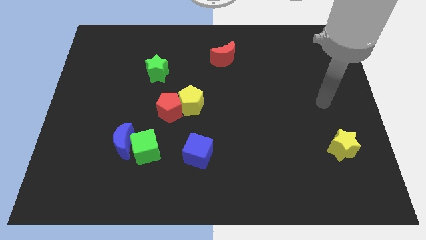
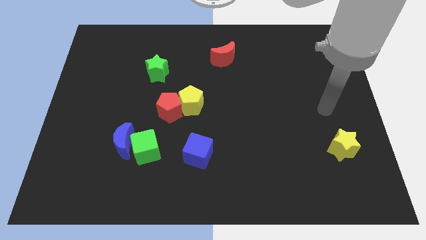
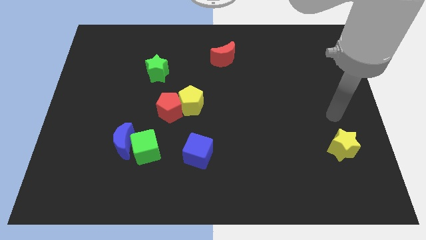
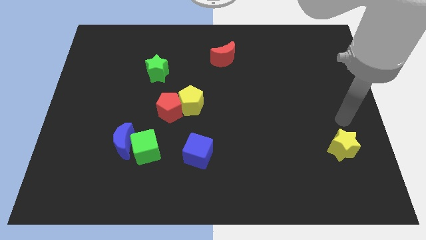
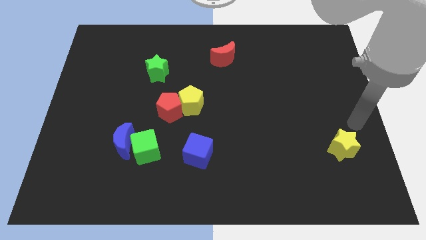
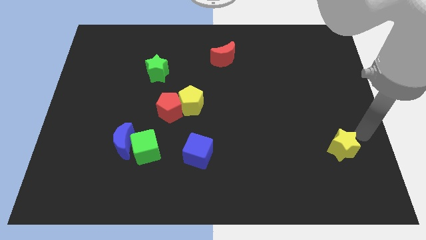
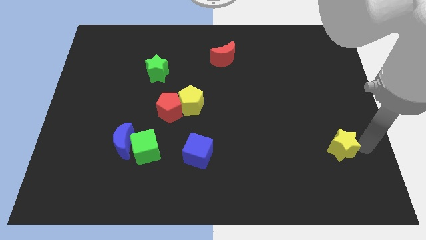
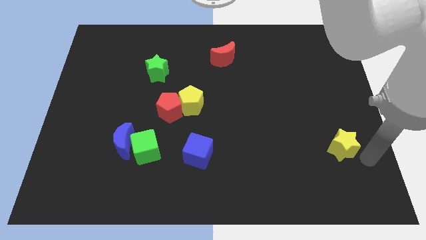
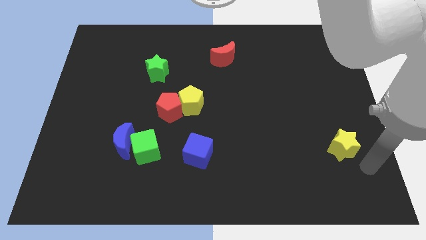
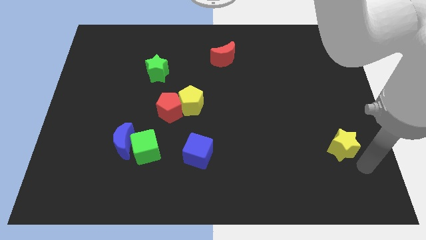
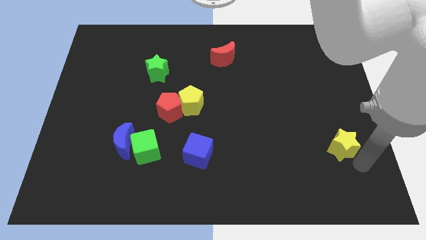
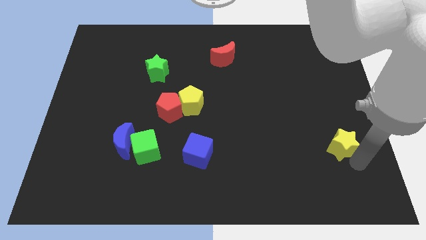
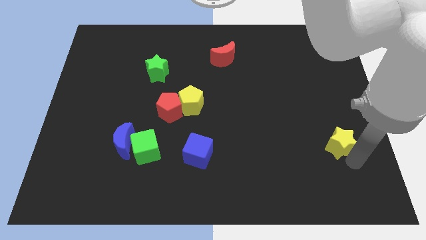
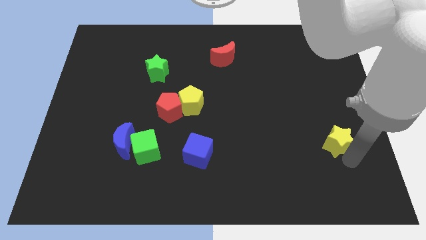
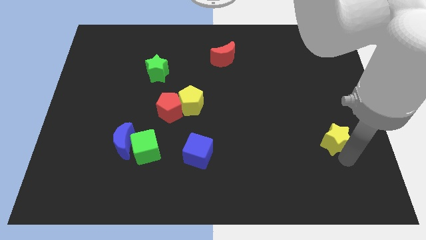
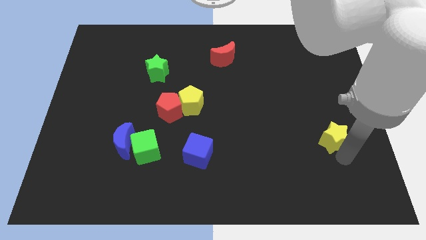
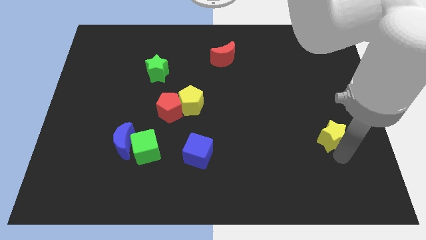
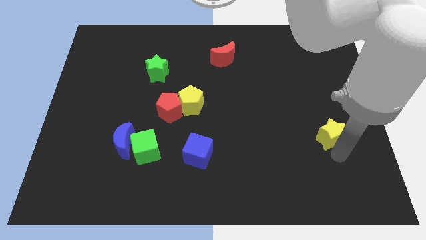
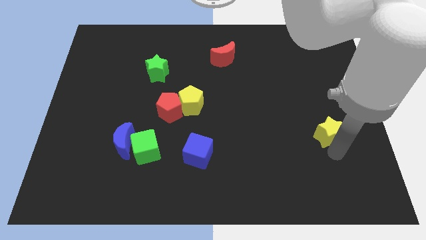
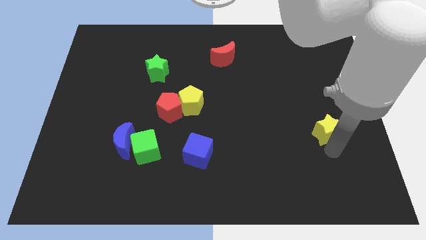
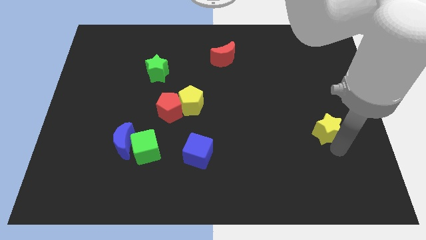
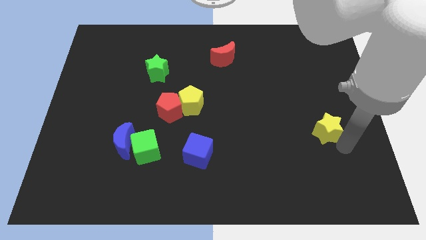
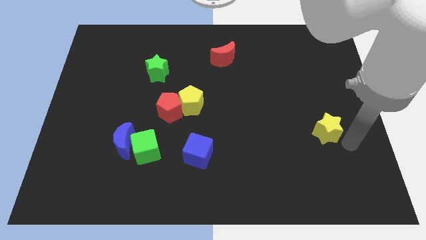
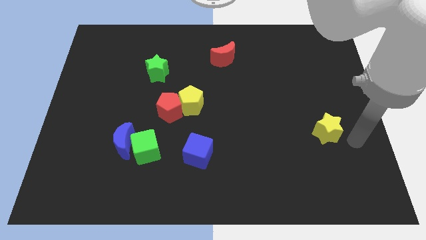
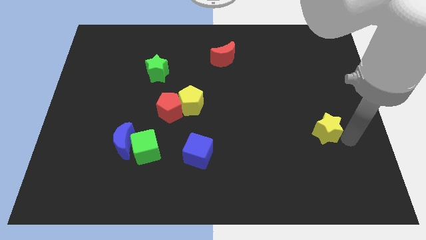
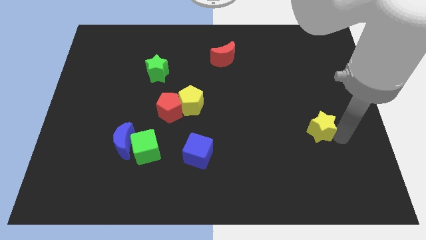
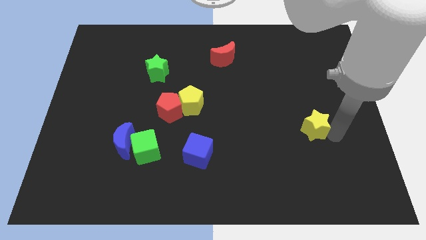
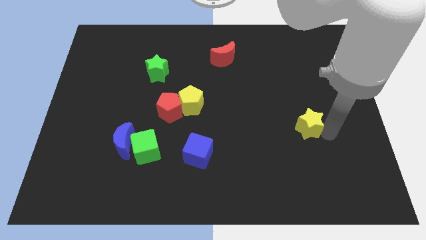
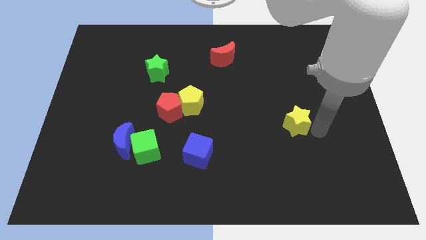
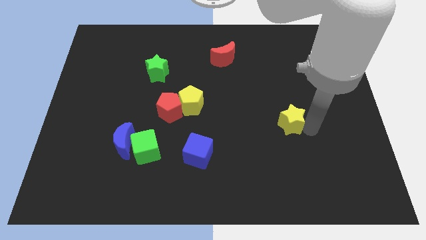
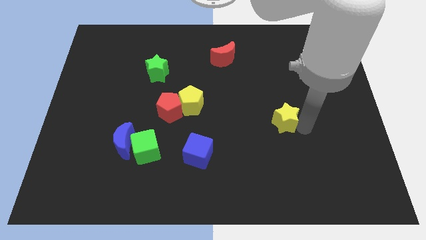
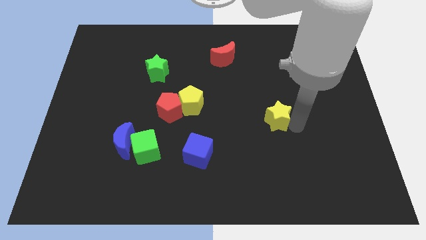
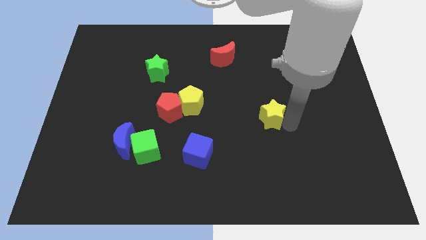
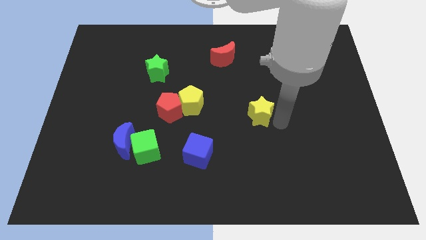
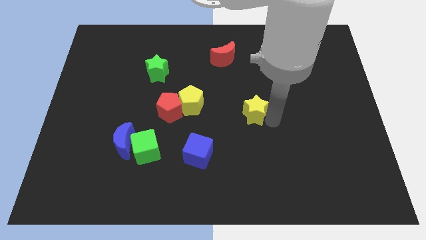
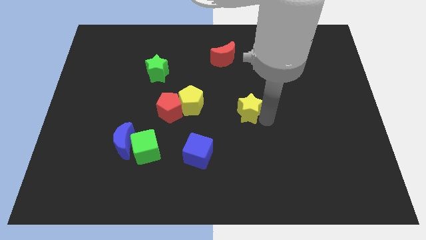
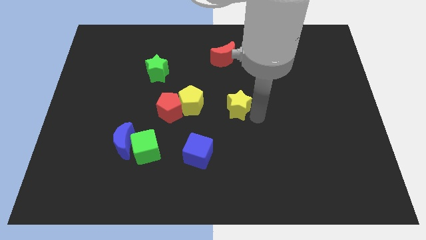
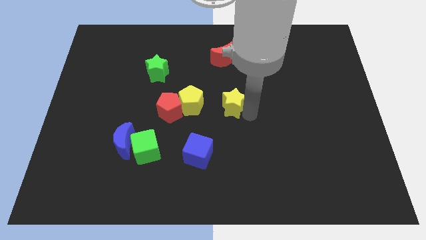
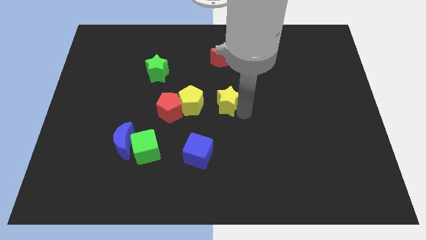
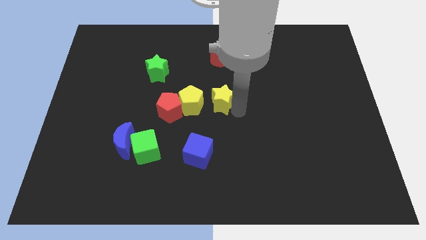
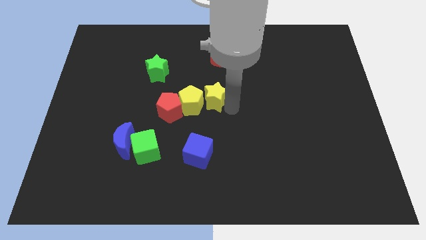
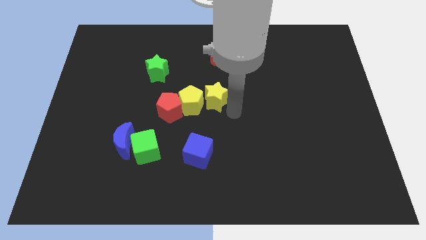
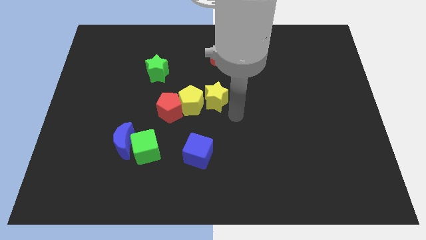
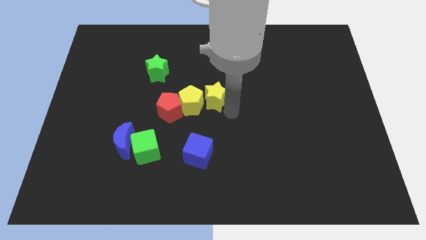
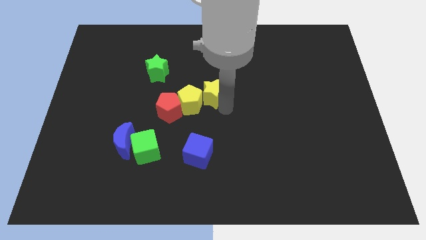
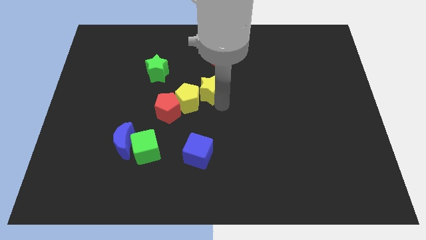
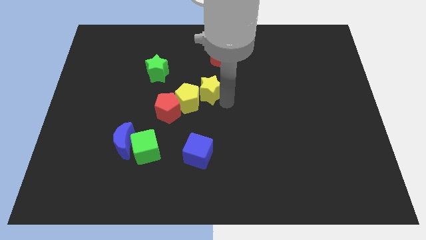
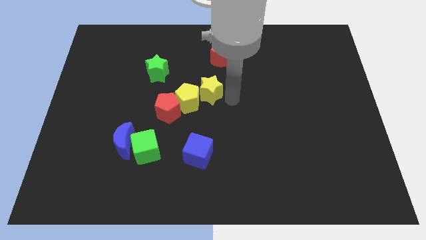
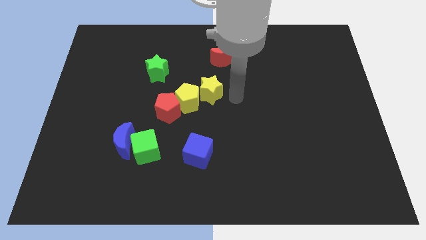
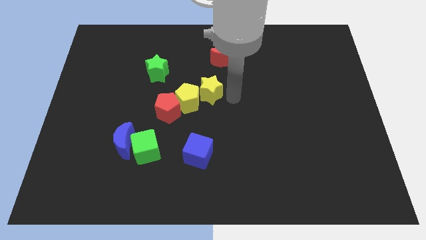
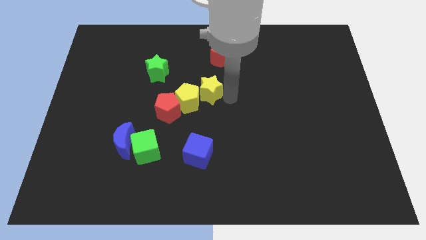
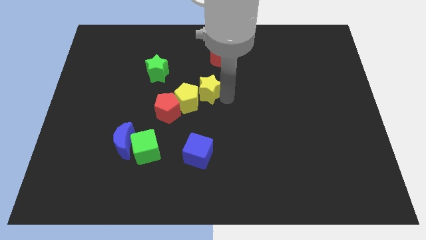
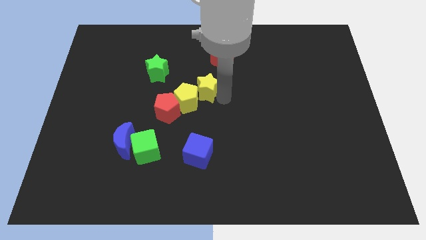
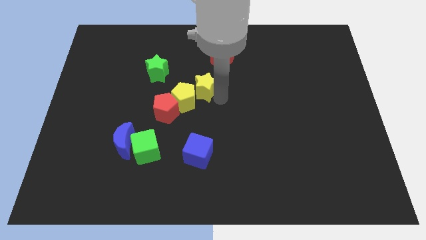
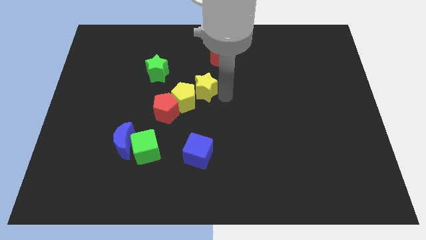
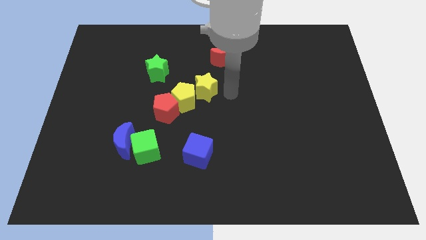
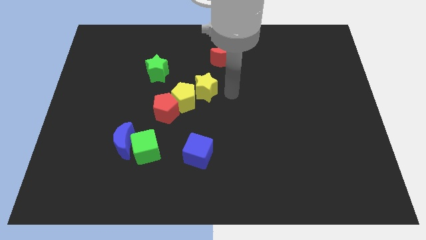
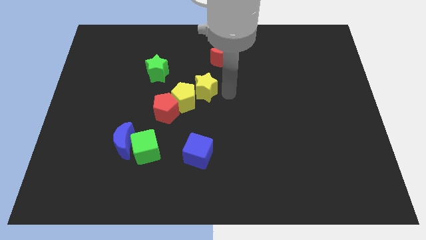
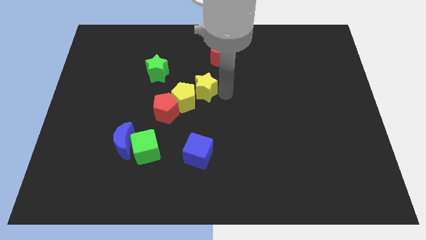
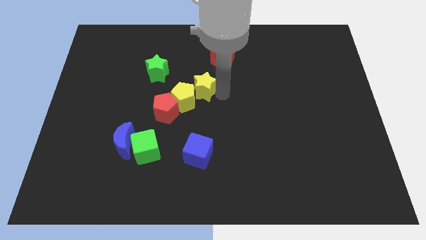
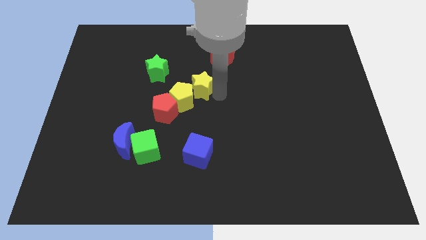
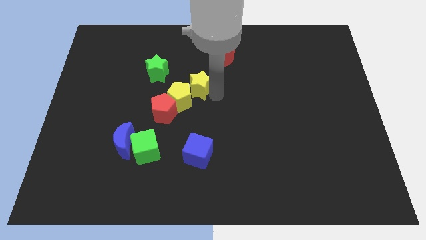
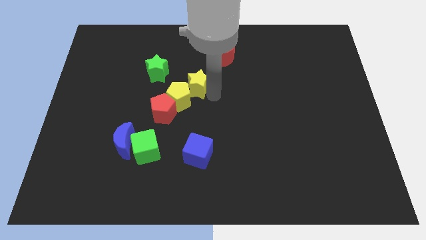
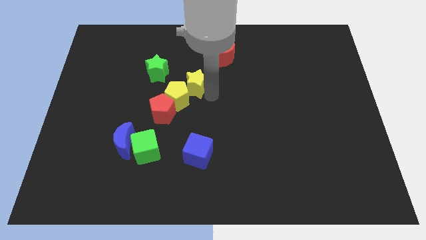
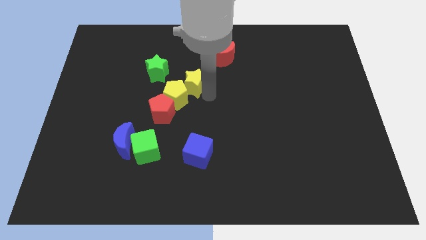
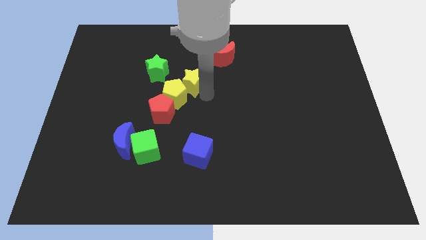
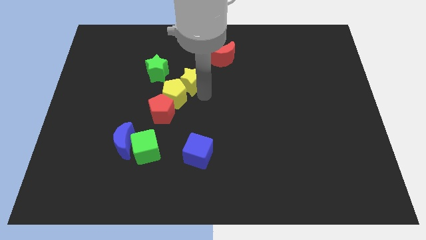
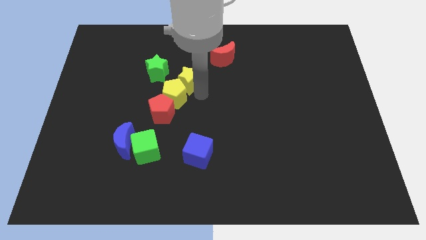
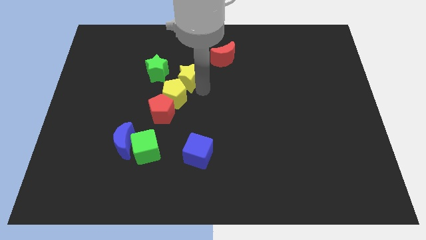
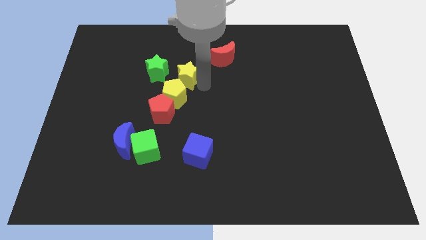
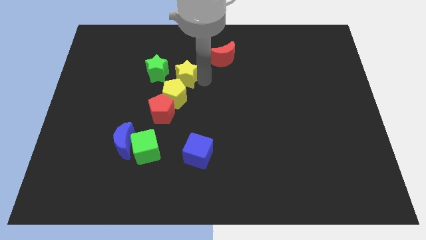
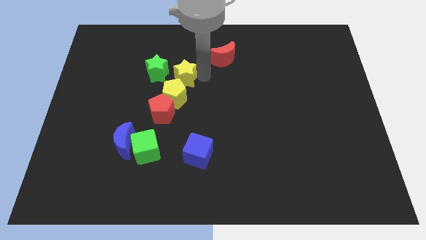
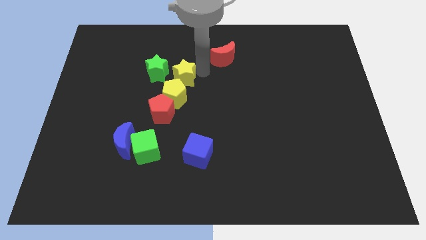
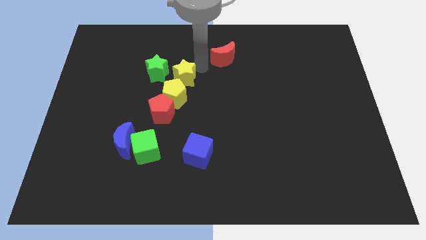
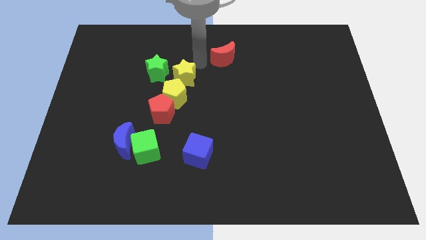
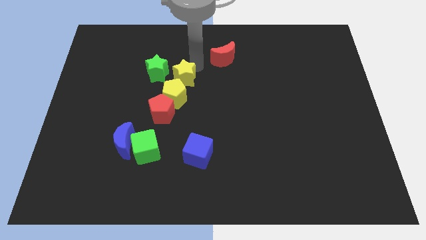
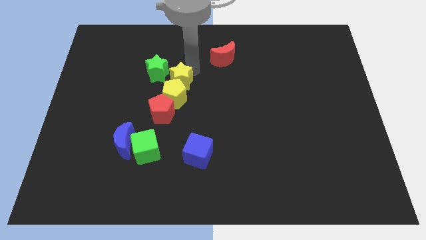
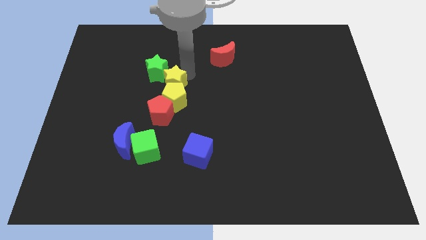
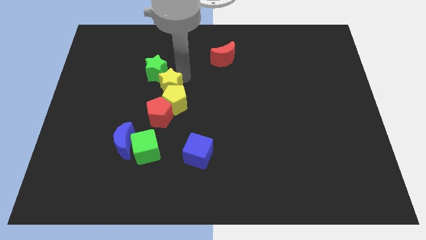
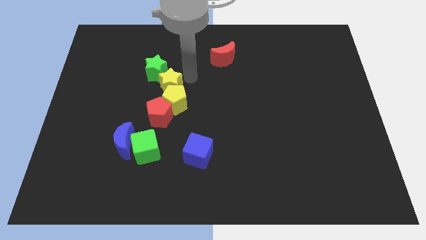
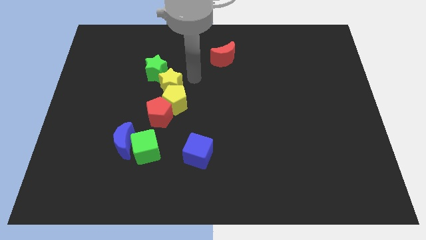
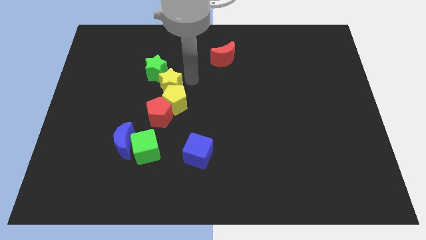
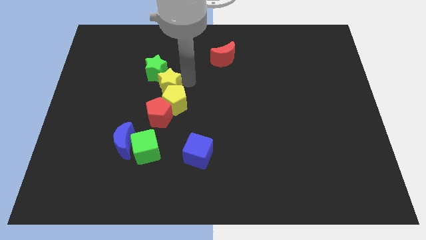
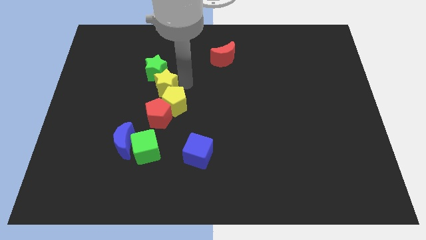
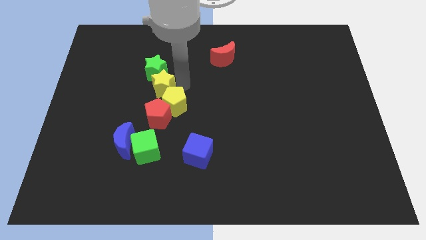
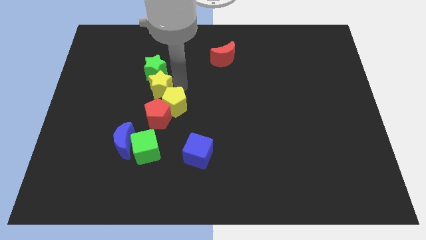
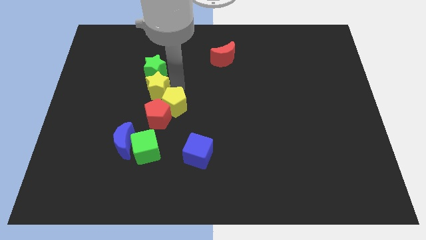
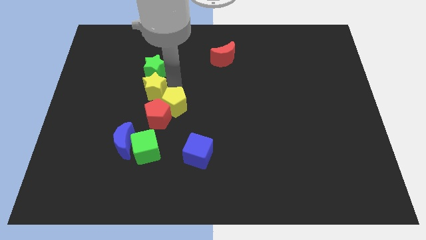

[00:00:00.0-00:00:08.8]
put the yellow star to the top left side of the red pentagon
